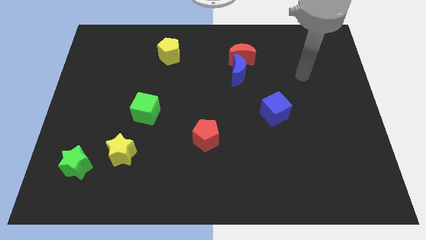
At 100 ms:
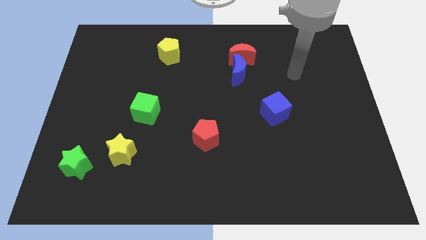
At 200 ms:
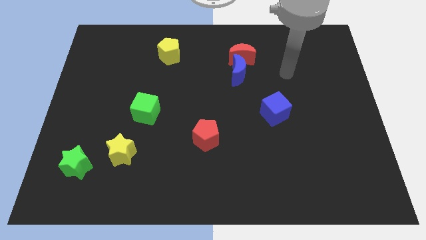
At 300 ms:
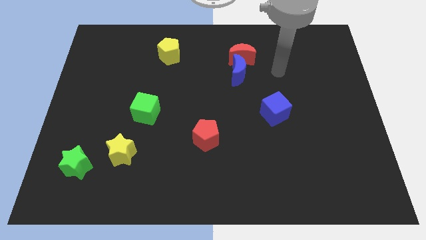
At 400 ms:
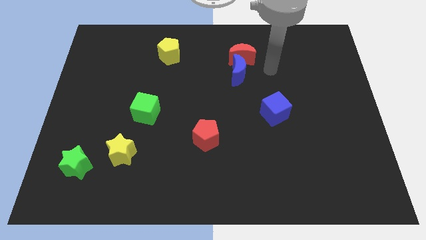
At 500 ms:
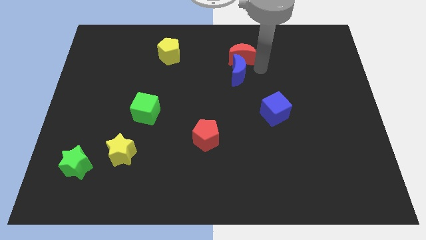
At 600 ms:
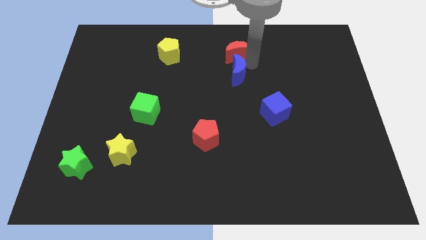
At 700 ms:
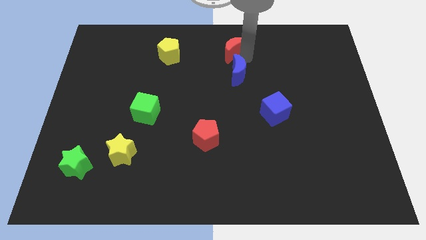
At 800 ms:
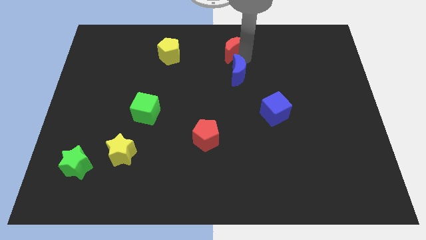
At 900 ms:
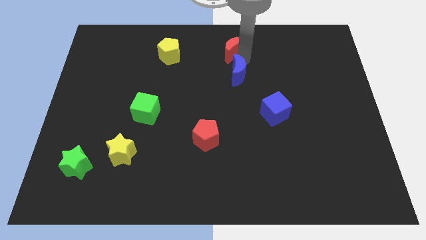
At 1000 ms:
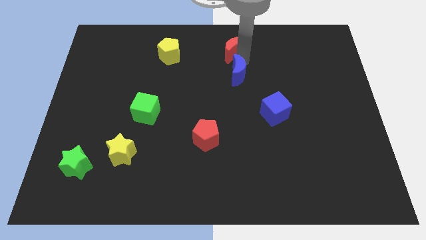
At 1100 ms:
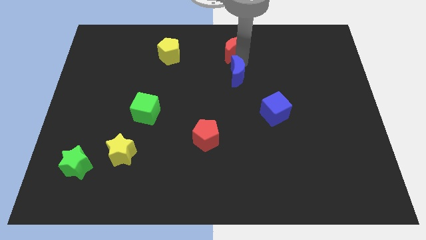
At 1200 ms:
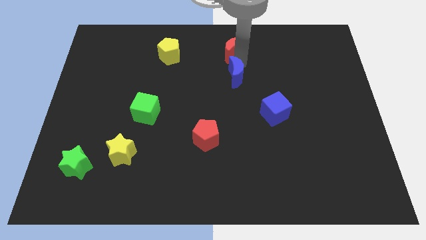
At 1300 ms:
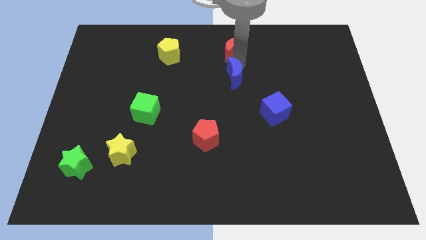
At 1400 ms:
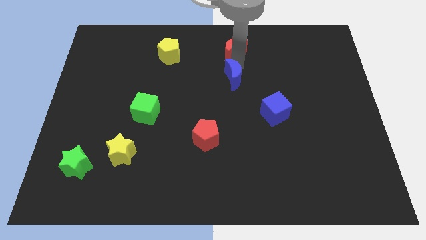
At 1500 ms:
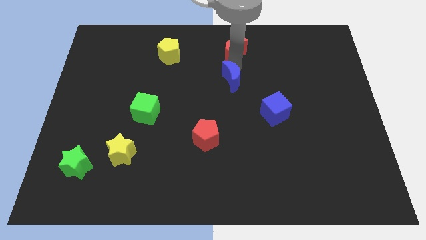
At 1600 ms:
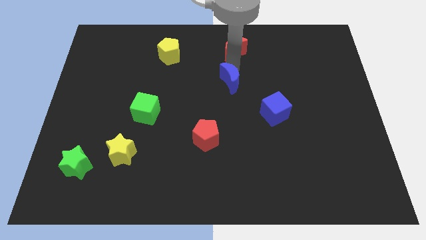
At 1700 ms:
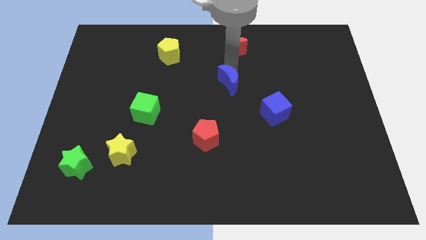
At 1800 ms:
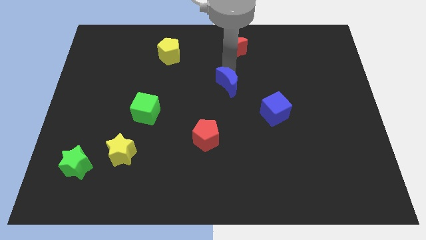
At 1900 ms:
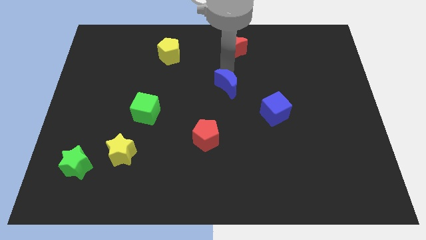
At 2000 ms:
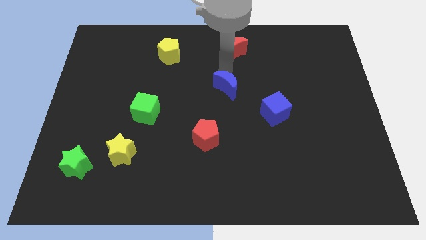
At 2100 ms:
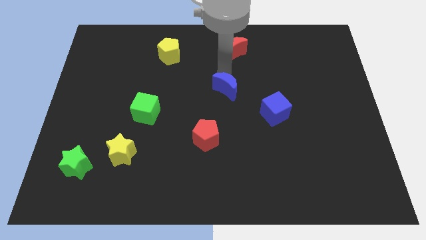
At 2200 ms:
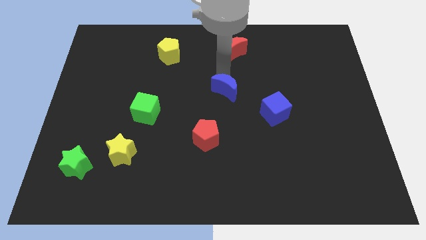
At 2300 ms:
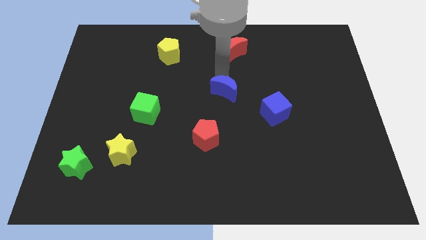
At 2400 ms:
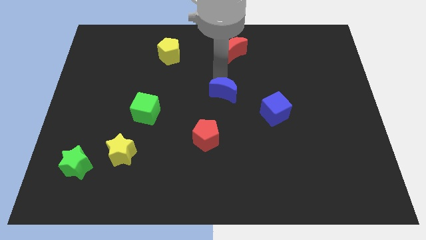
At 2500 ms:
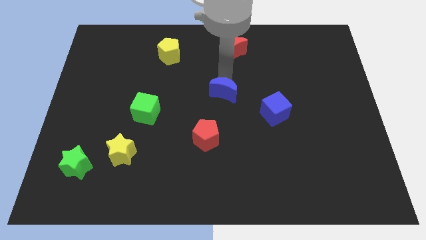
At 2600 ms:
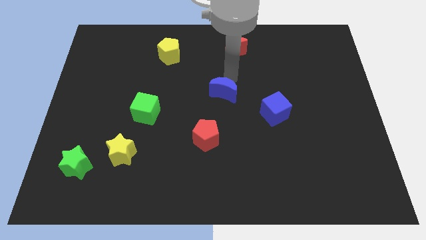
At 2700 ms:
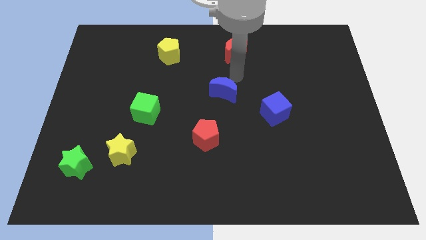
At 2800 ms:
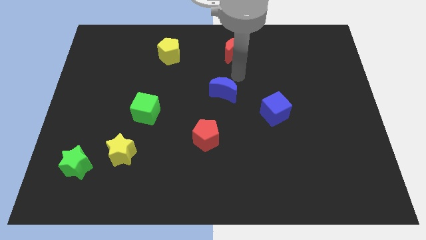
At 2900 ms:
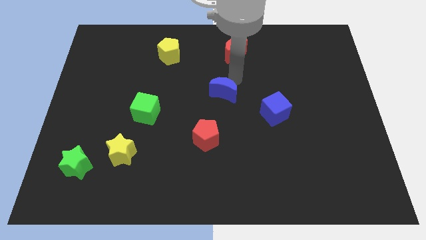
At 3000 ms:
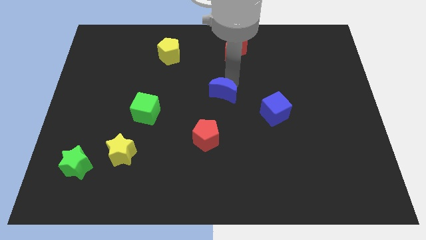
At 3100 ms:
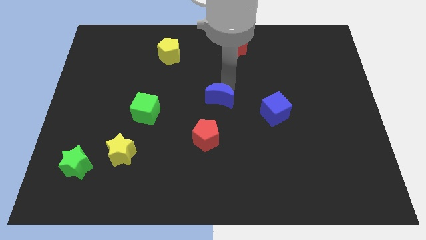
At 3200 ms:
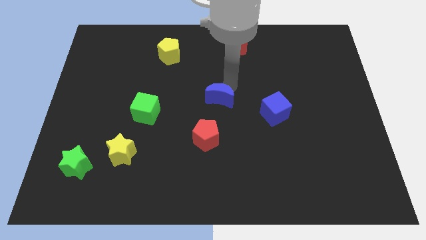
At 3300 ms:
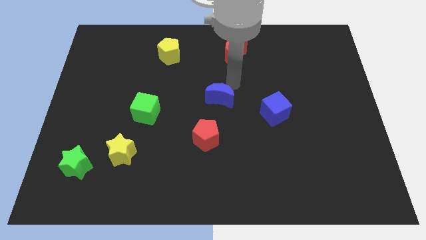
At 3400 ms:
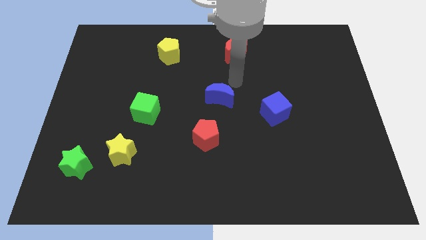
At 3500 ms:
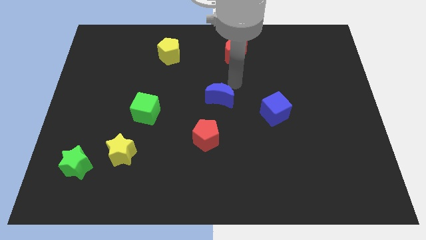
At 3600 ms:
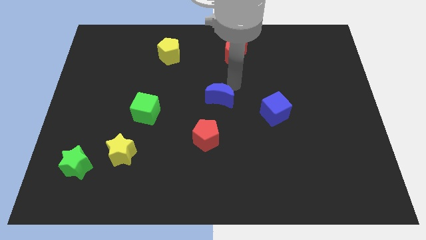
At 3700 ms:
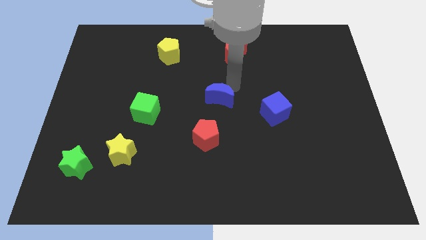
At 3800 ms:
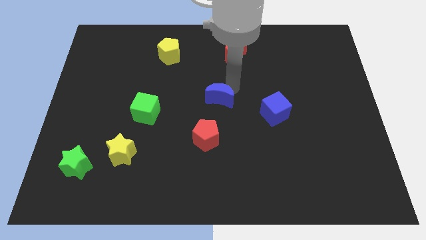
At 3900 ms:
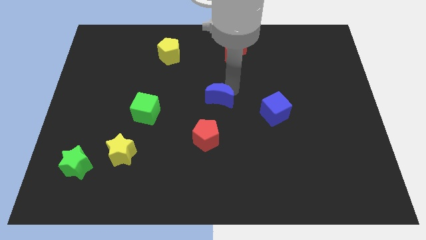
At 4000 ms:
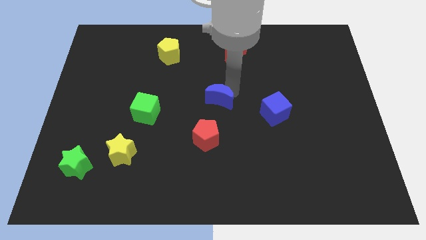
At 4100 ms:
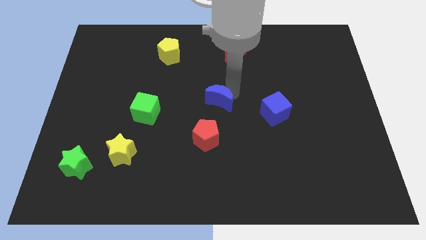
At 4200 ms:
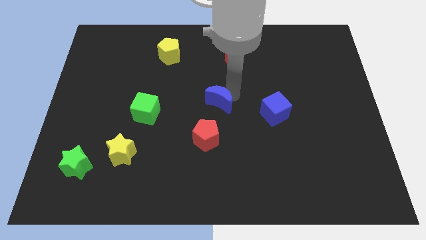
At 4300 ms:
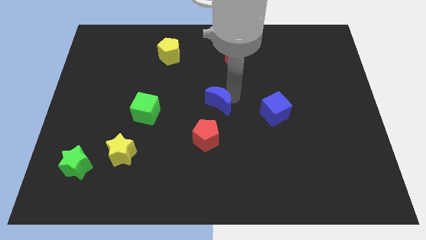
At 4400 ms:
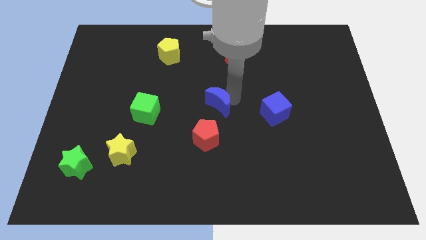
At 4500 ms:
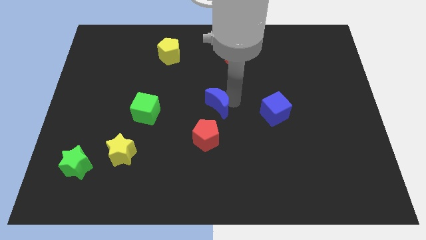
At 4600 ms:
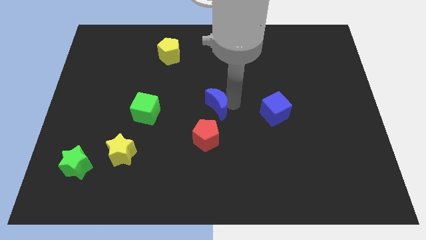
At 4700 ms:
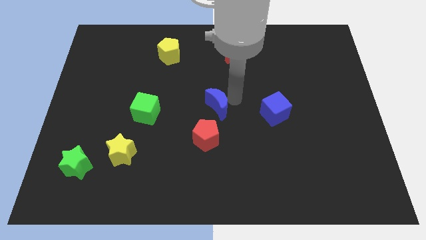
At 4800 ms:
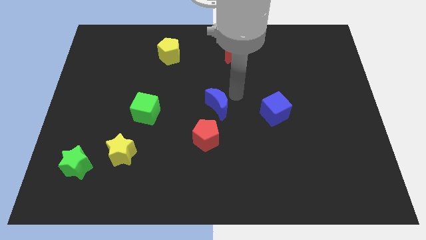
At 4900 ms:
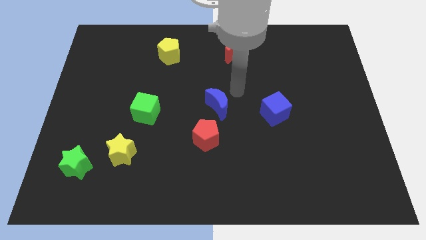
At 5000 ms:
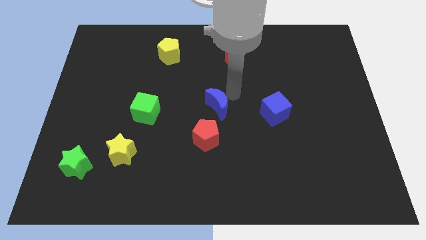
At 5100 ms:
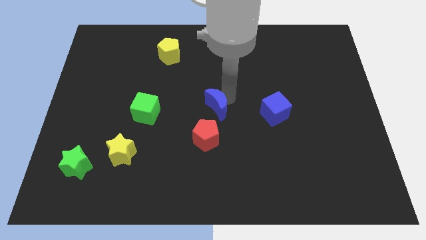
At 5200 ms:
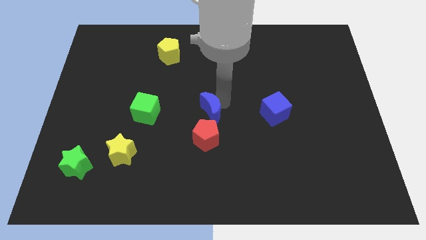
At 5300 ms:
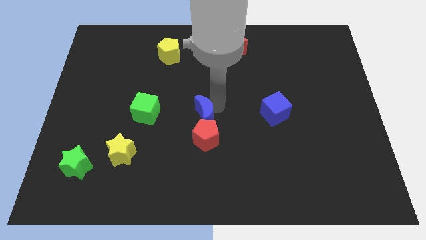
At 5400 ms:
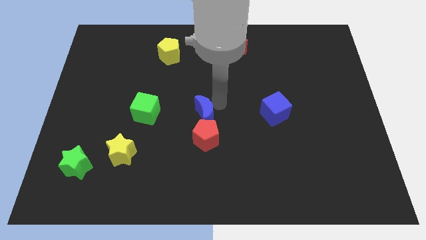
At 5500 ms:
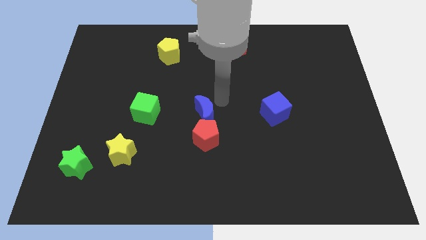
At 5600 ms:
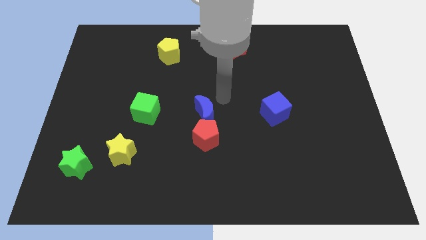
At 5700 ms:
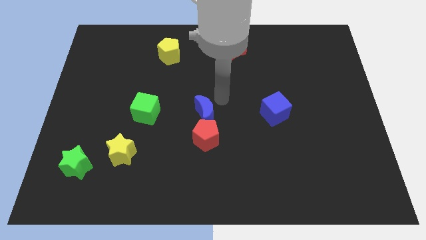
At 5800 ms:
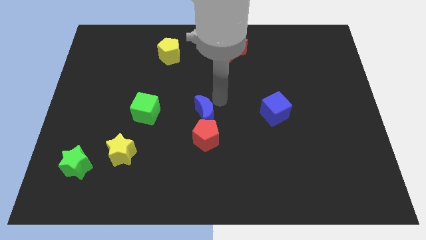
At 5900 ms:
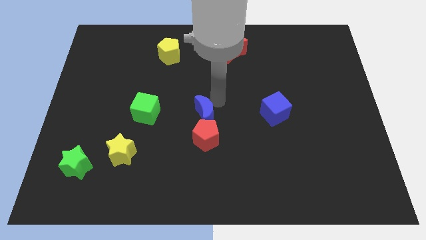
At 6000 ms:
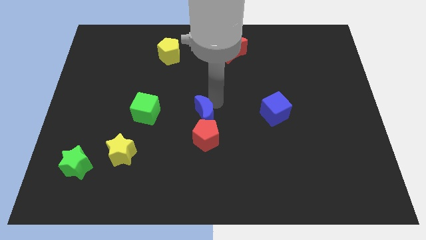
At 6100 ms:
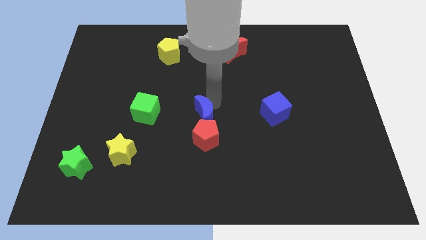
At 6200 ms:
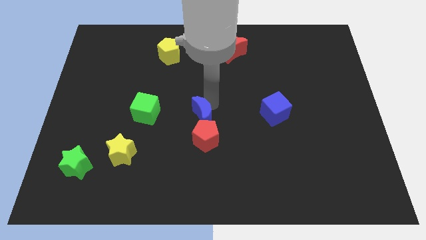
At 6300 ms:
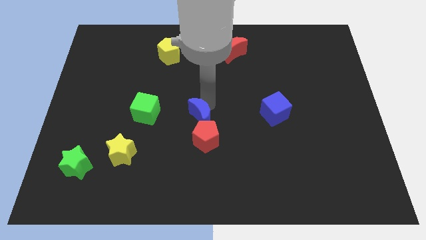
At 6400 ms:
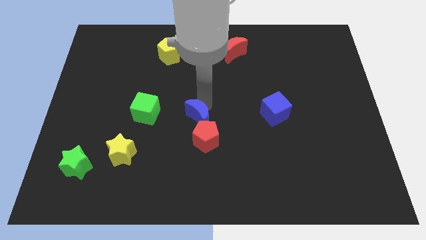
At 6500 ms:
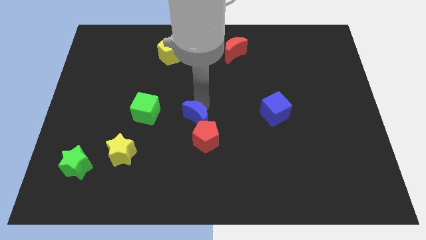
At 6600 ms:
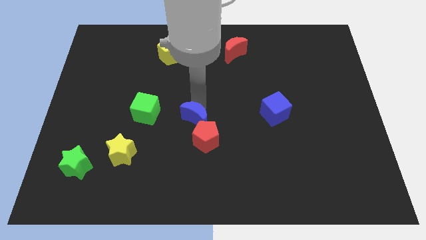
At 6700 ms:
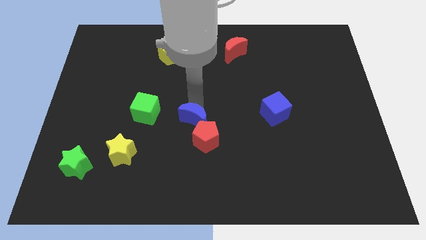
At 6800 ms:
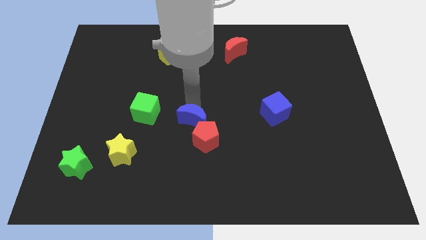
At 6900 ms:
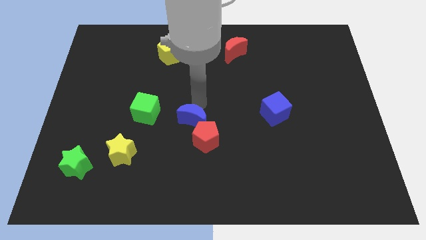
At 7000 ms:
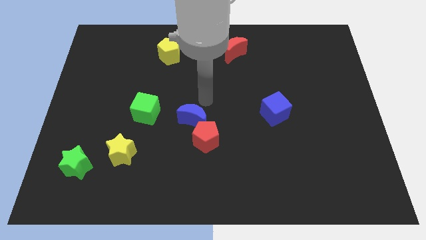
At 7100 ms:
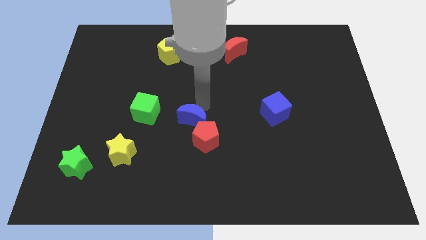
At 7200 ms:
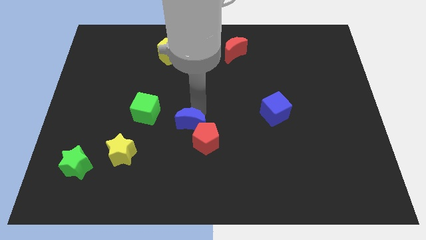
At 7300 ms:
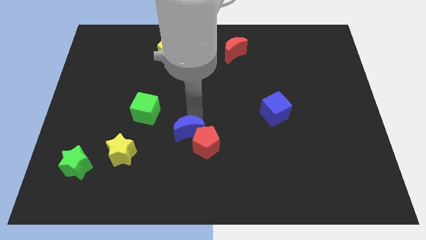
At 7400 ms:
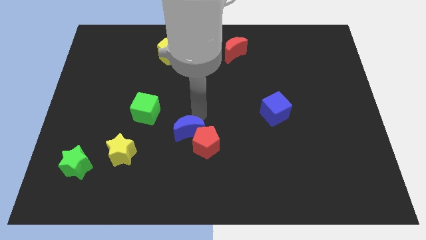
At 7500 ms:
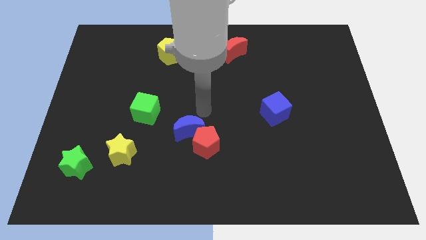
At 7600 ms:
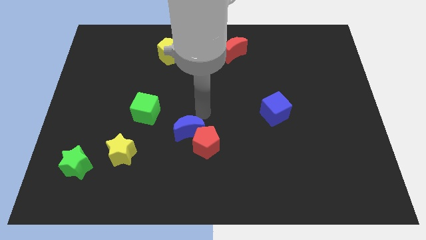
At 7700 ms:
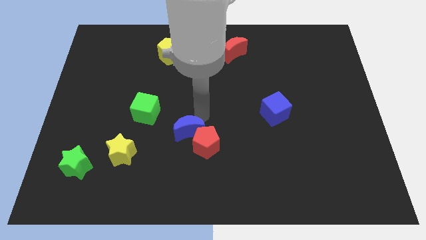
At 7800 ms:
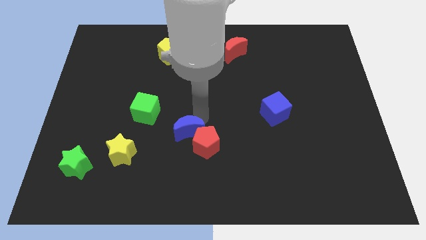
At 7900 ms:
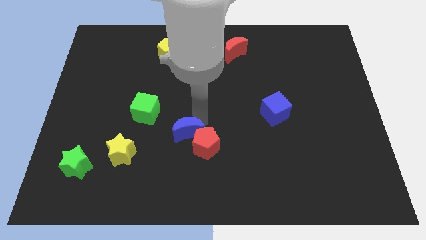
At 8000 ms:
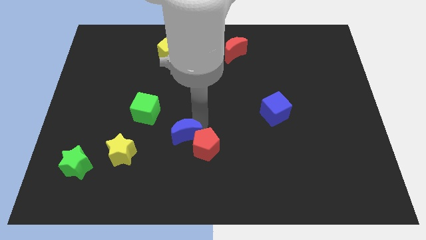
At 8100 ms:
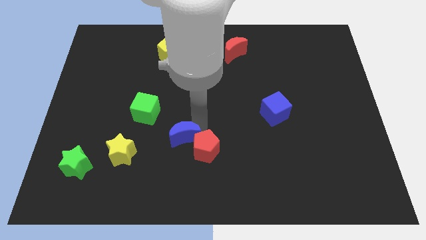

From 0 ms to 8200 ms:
slide the blue moon just right of the yellow star
